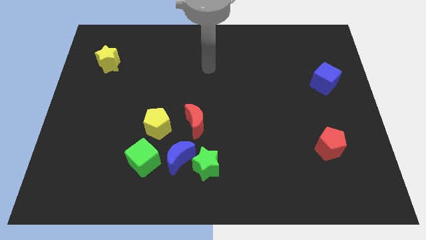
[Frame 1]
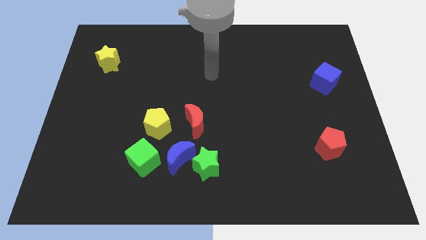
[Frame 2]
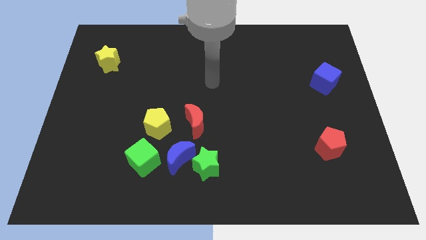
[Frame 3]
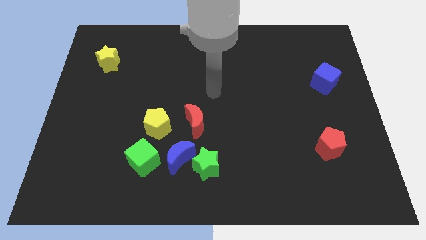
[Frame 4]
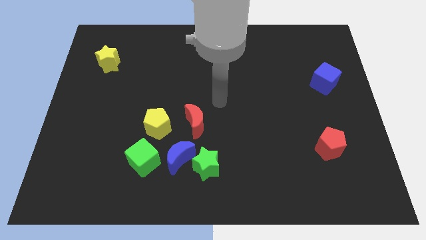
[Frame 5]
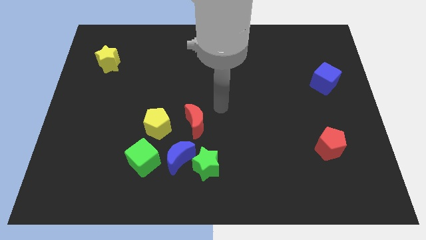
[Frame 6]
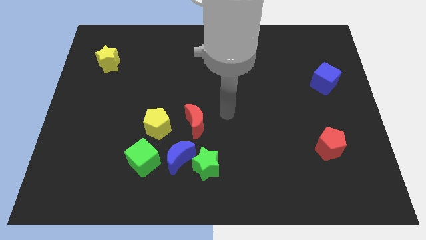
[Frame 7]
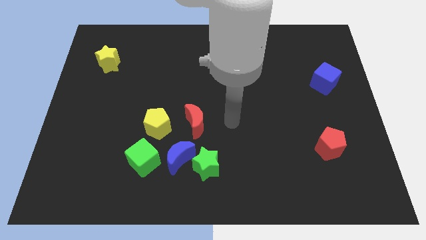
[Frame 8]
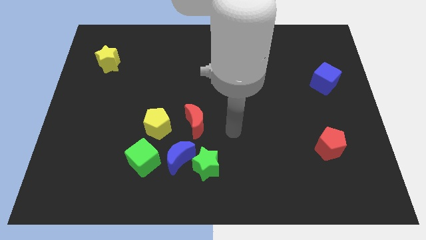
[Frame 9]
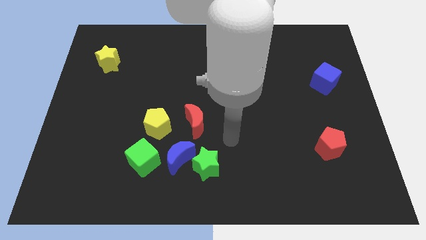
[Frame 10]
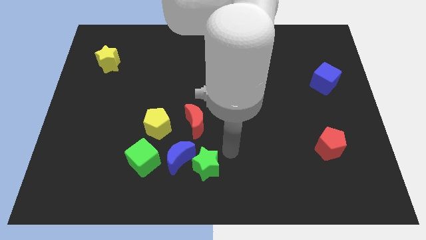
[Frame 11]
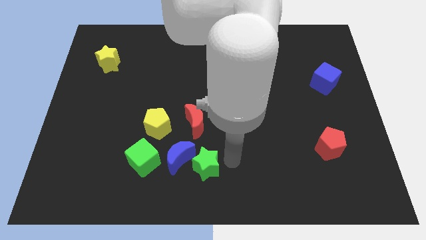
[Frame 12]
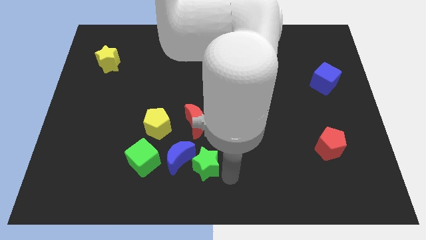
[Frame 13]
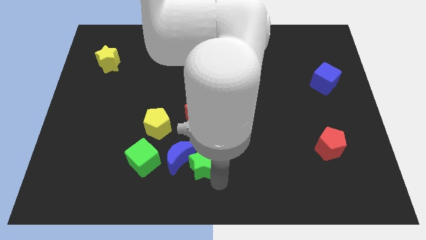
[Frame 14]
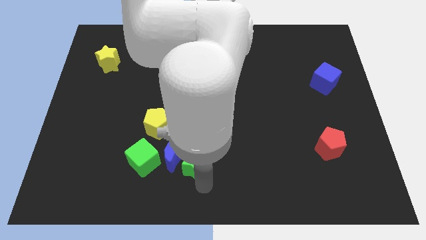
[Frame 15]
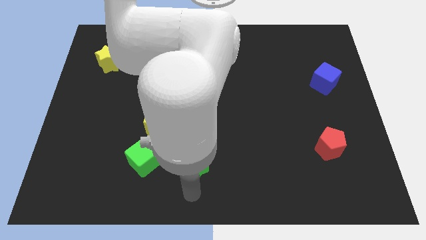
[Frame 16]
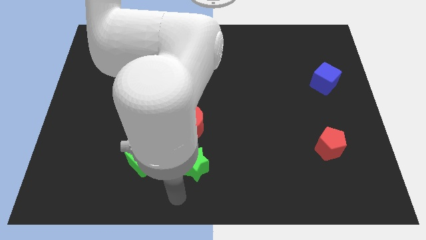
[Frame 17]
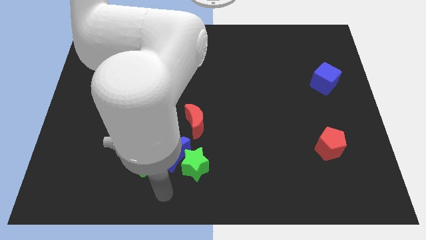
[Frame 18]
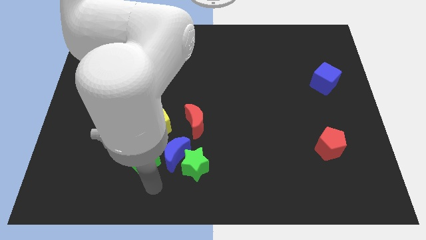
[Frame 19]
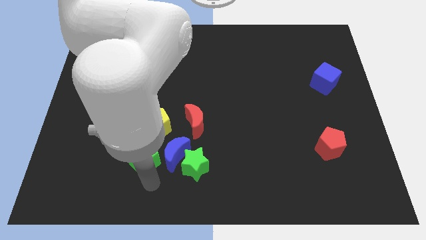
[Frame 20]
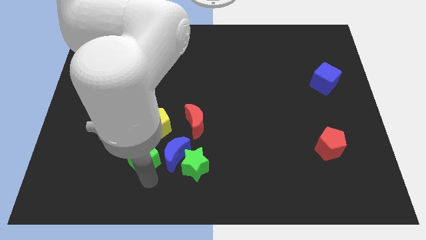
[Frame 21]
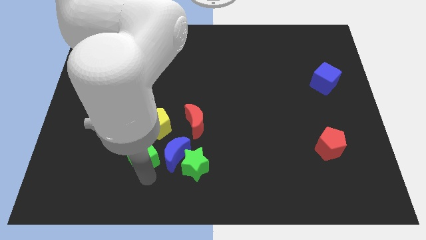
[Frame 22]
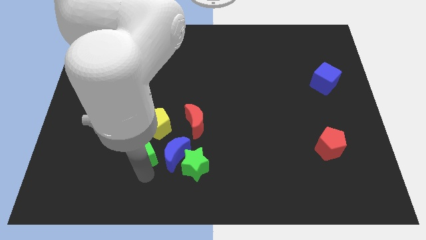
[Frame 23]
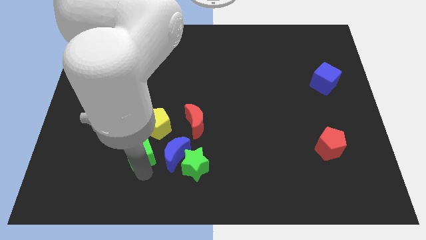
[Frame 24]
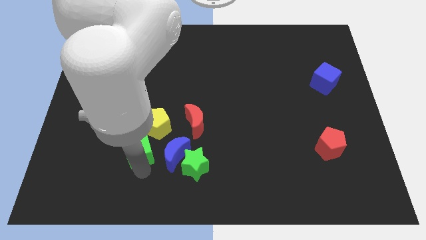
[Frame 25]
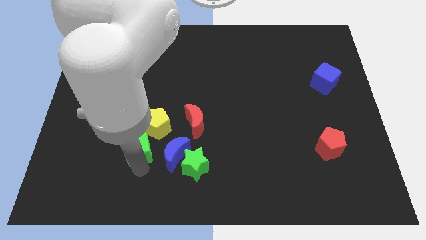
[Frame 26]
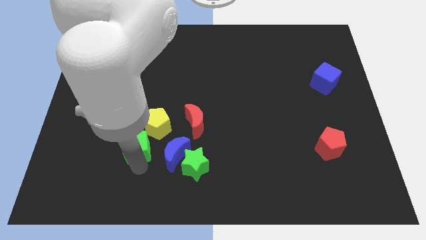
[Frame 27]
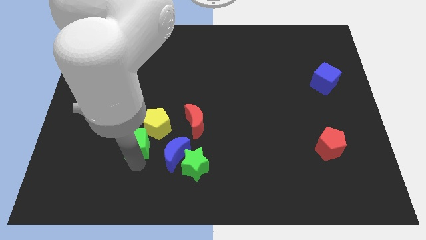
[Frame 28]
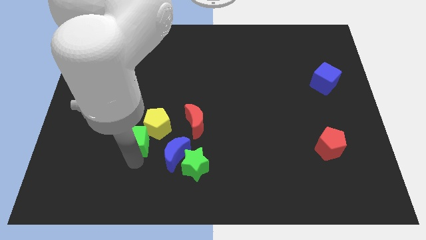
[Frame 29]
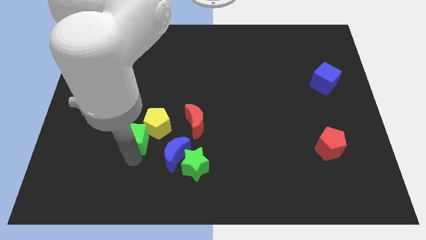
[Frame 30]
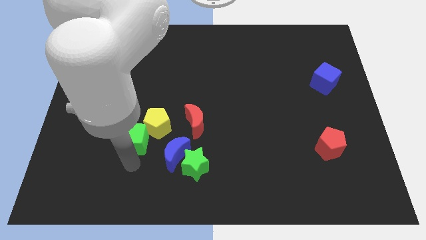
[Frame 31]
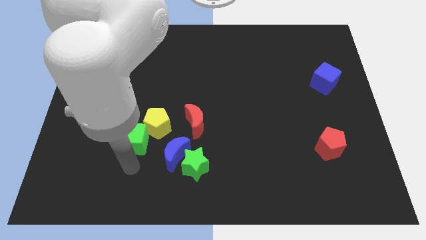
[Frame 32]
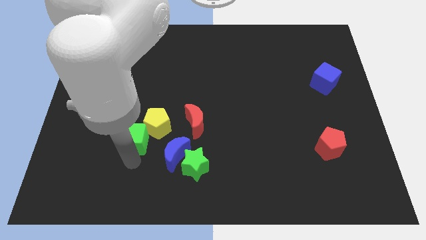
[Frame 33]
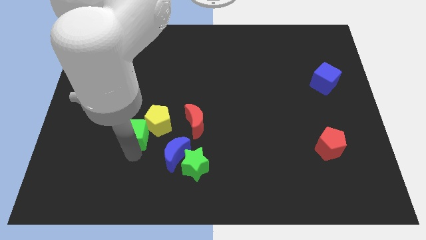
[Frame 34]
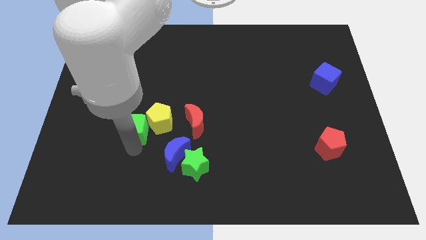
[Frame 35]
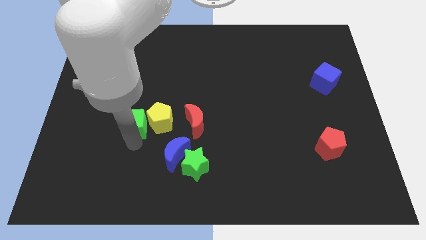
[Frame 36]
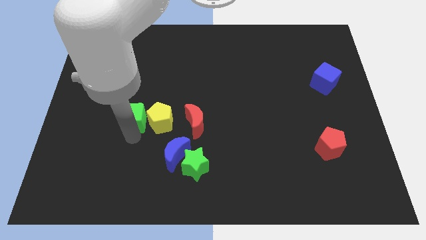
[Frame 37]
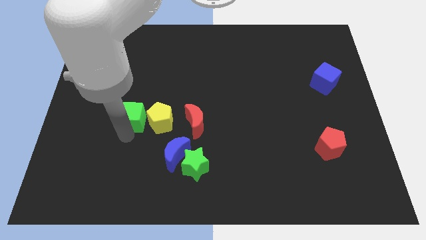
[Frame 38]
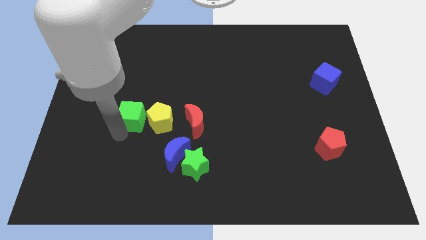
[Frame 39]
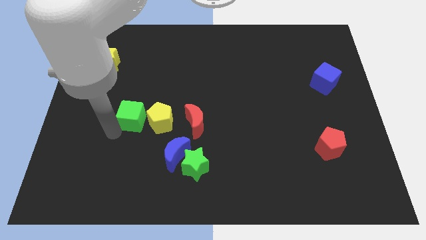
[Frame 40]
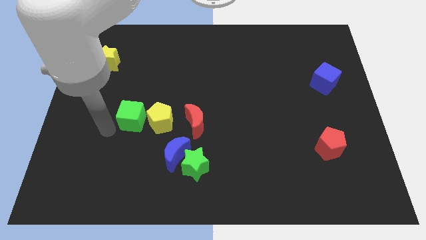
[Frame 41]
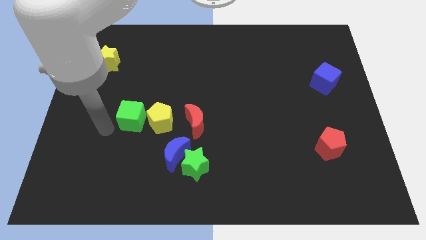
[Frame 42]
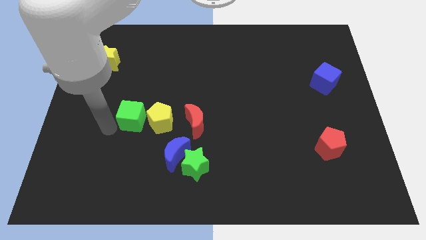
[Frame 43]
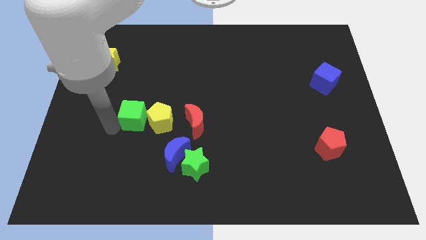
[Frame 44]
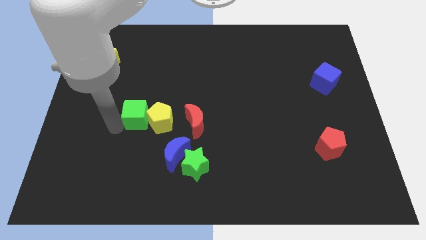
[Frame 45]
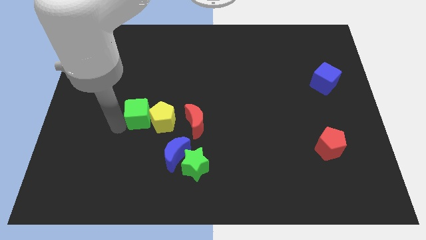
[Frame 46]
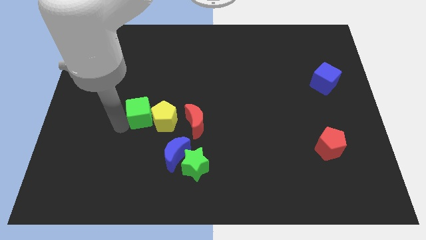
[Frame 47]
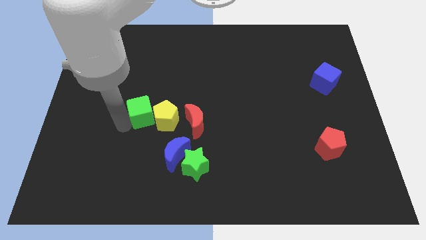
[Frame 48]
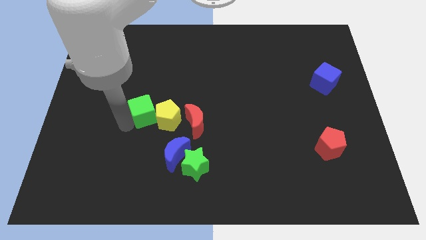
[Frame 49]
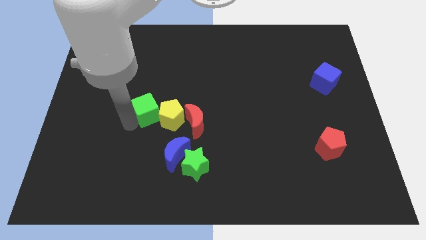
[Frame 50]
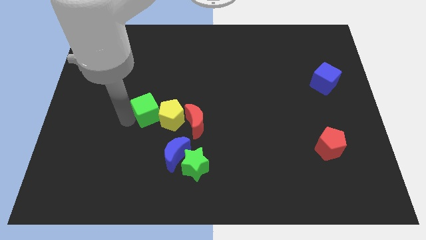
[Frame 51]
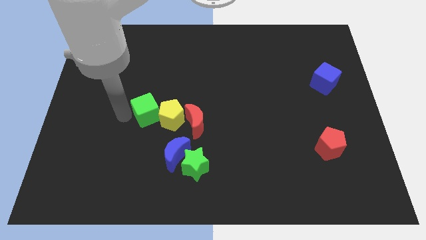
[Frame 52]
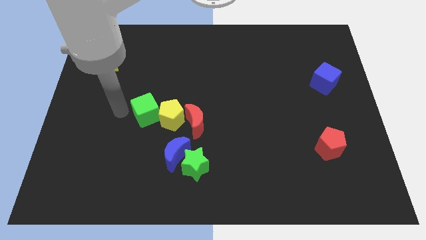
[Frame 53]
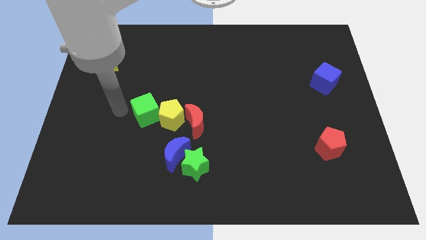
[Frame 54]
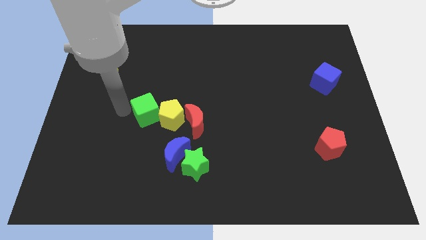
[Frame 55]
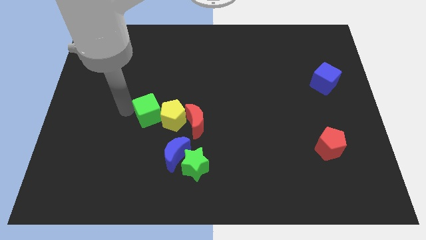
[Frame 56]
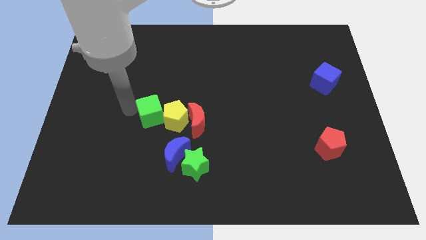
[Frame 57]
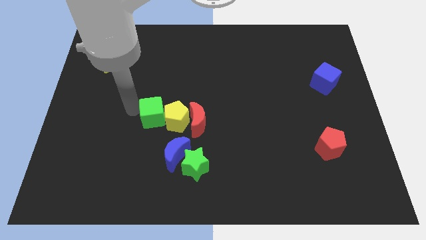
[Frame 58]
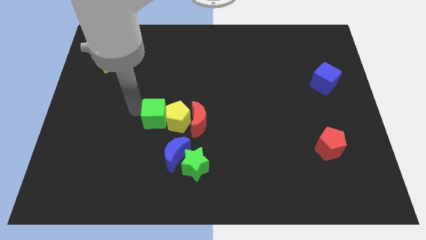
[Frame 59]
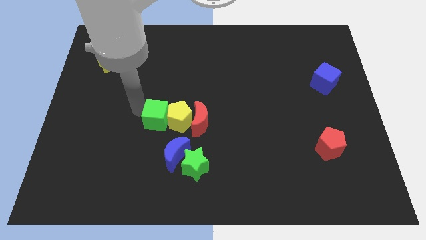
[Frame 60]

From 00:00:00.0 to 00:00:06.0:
move the green cube above the blue moon

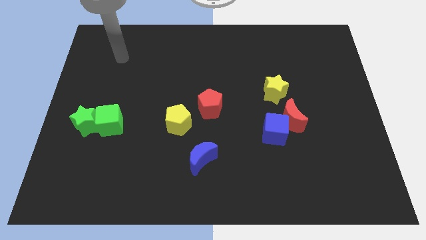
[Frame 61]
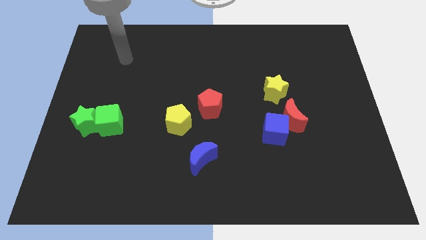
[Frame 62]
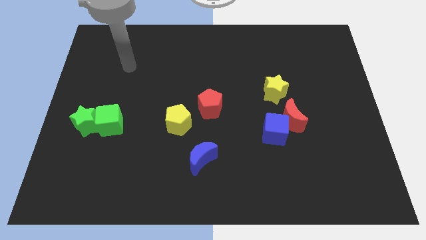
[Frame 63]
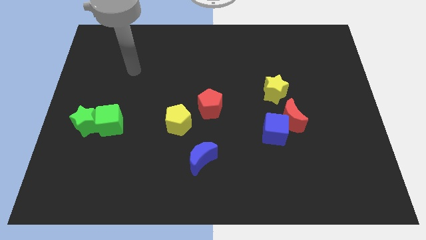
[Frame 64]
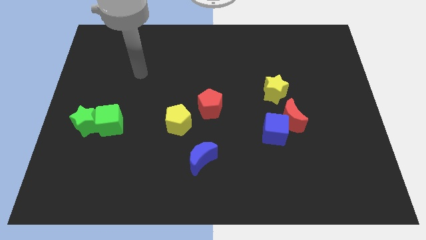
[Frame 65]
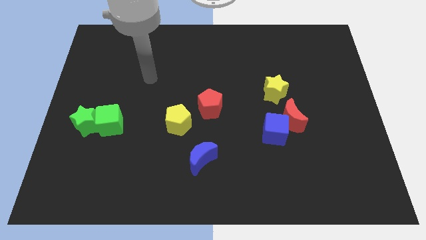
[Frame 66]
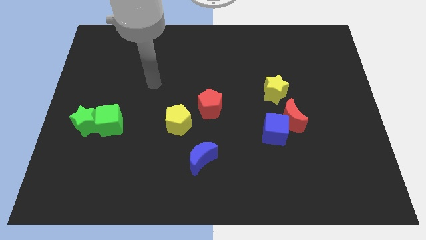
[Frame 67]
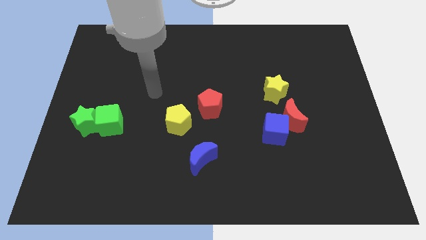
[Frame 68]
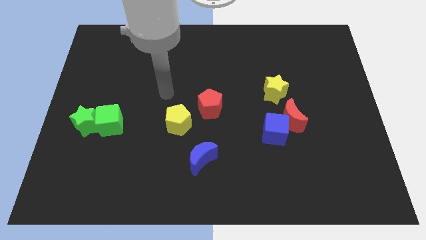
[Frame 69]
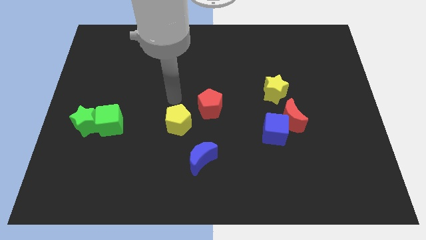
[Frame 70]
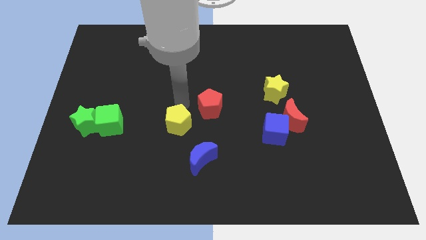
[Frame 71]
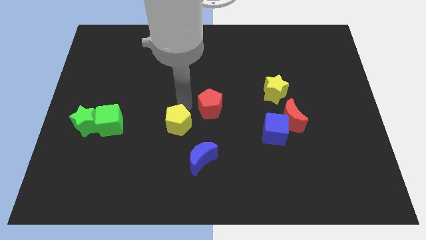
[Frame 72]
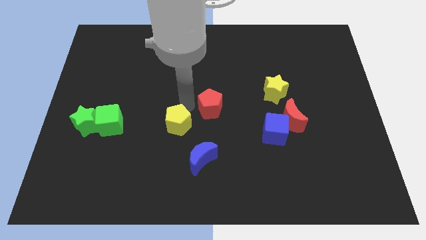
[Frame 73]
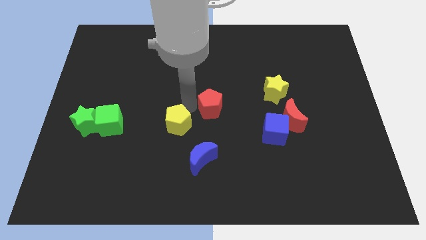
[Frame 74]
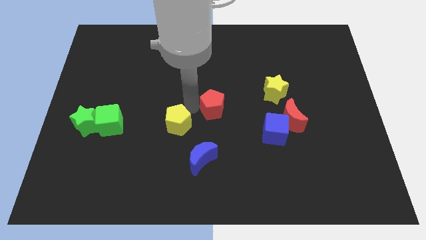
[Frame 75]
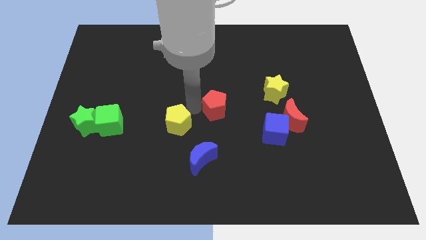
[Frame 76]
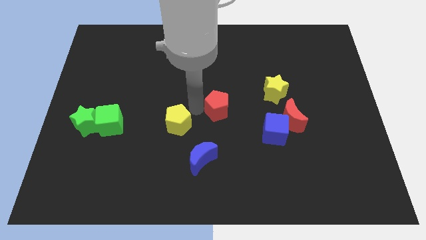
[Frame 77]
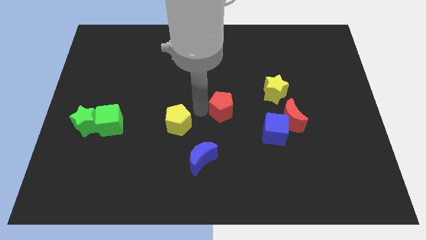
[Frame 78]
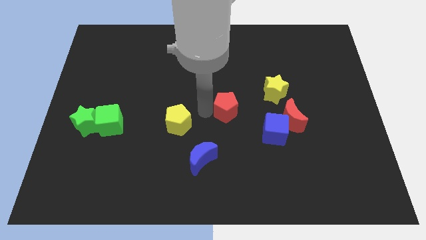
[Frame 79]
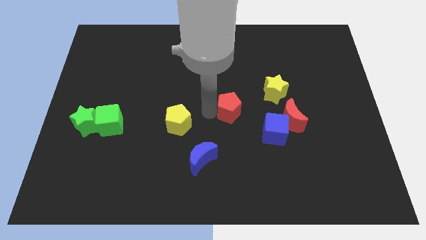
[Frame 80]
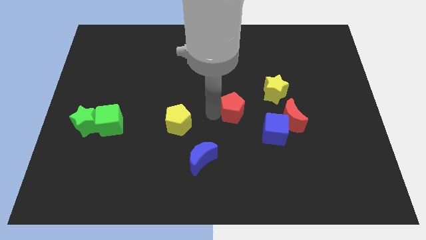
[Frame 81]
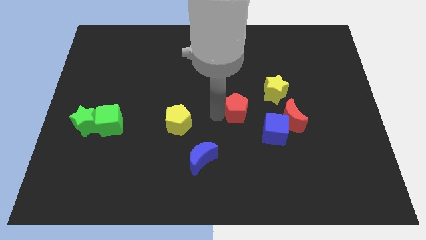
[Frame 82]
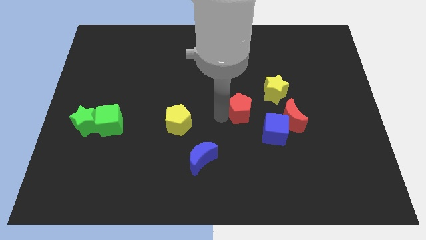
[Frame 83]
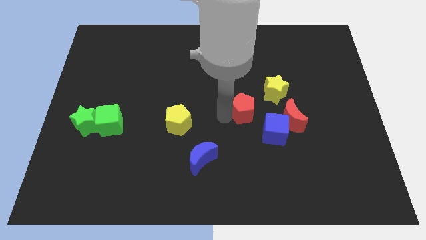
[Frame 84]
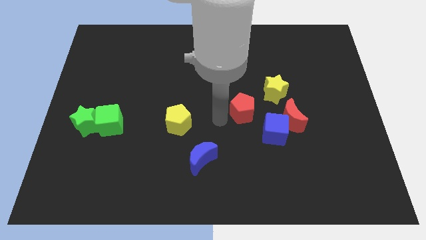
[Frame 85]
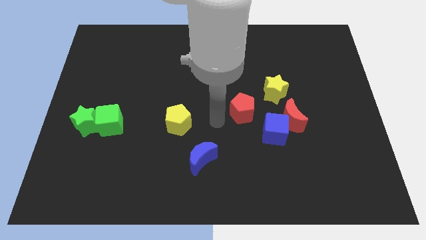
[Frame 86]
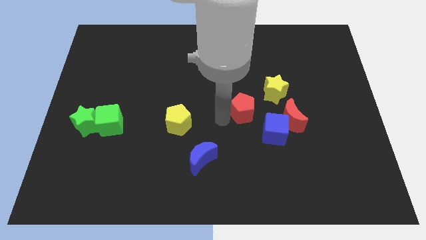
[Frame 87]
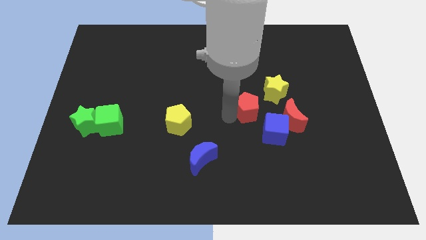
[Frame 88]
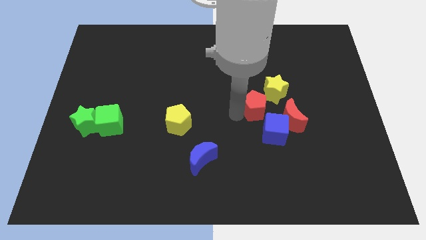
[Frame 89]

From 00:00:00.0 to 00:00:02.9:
push the red pentagon diagonally up and to the left of the red moon
